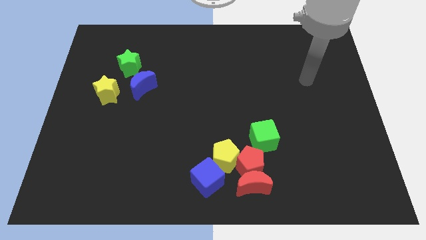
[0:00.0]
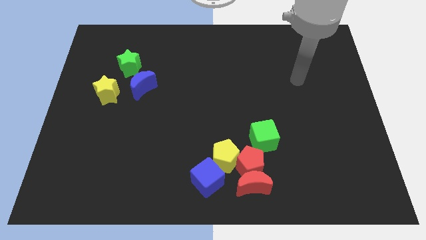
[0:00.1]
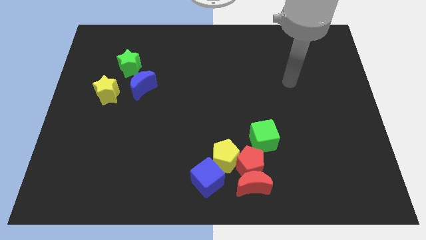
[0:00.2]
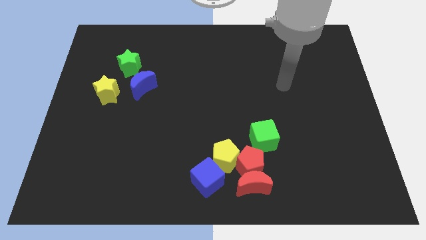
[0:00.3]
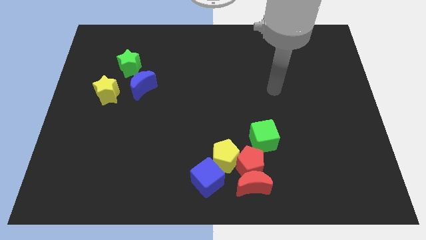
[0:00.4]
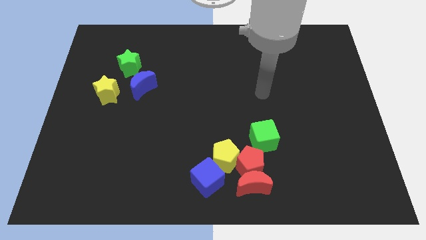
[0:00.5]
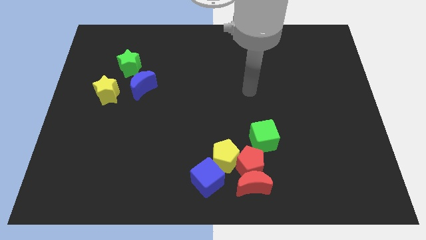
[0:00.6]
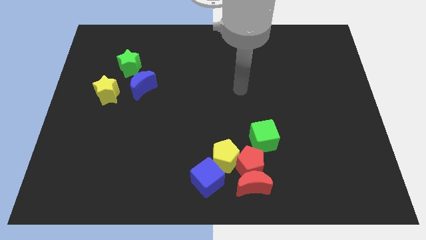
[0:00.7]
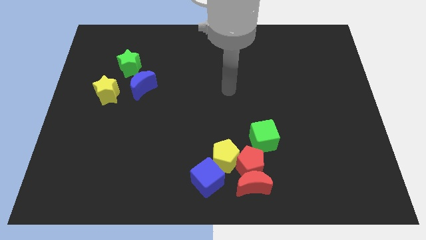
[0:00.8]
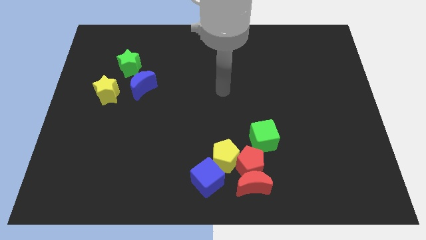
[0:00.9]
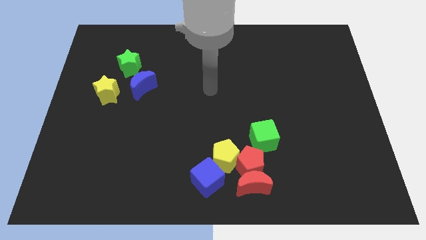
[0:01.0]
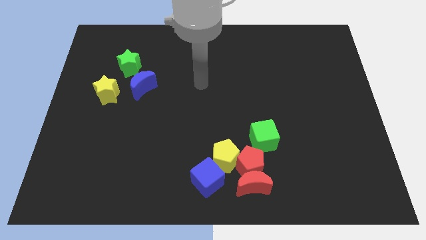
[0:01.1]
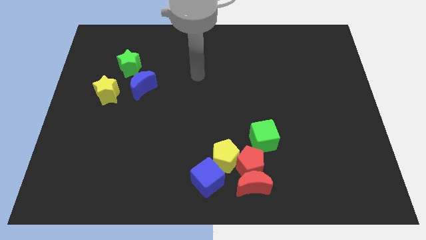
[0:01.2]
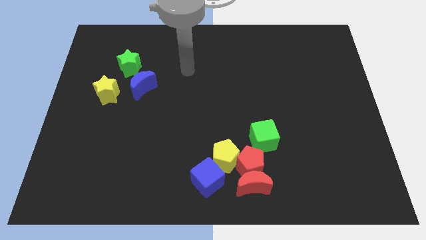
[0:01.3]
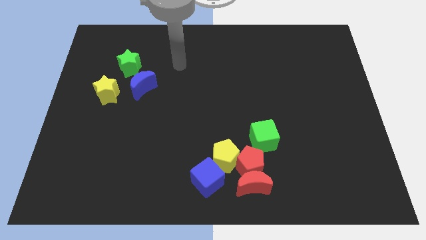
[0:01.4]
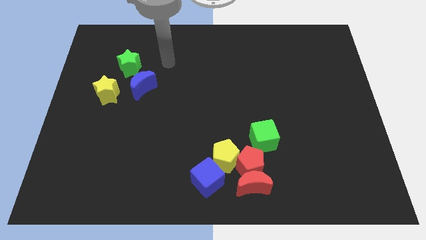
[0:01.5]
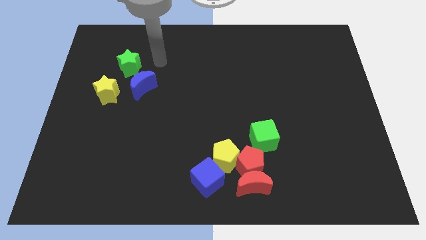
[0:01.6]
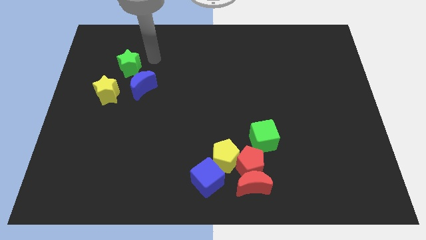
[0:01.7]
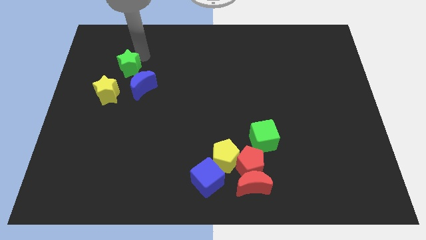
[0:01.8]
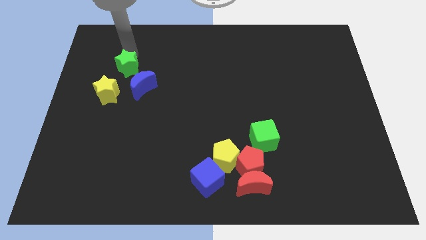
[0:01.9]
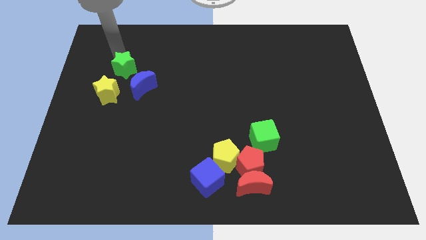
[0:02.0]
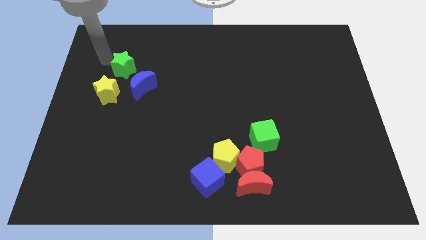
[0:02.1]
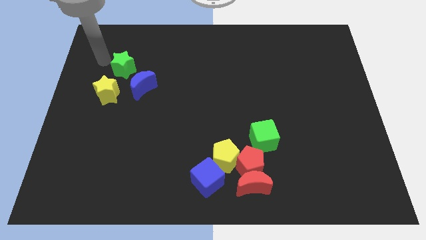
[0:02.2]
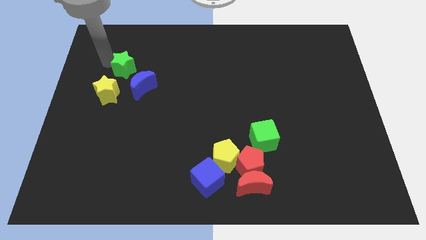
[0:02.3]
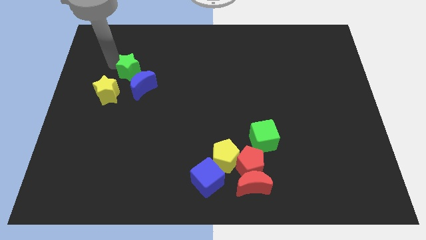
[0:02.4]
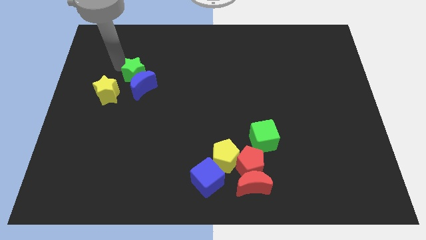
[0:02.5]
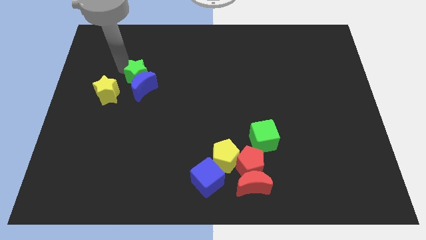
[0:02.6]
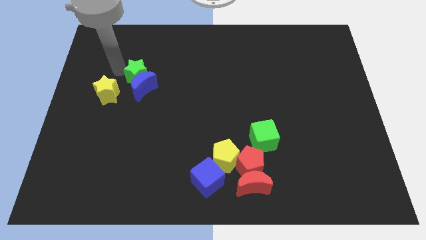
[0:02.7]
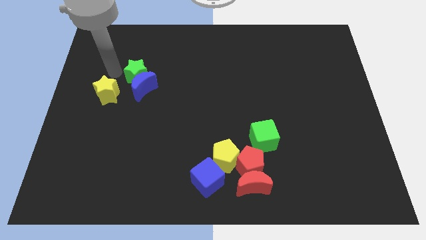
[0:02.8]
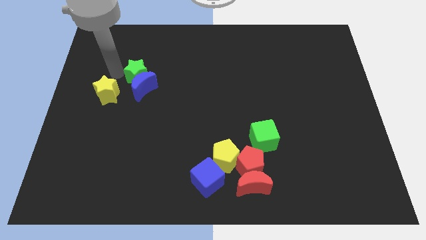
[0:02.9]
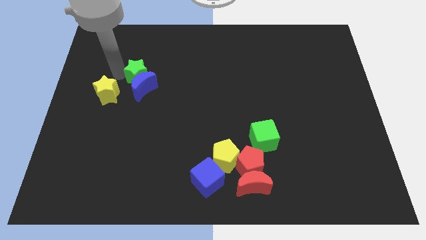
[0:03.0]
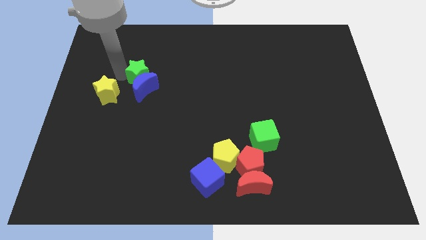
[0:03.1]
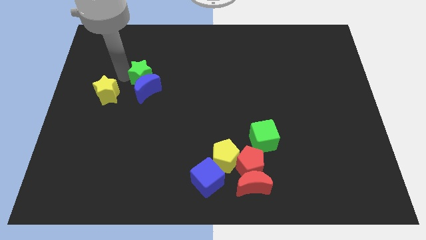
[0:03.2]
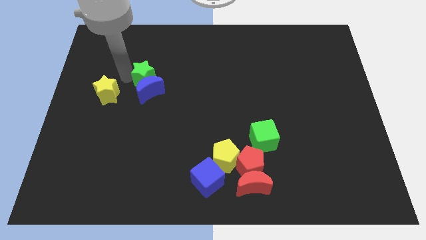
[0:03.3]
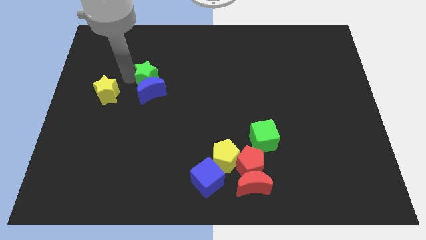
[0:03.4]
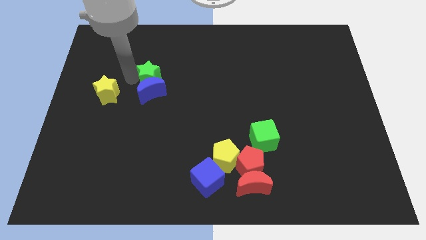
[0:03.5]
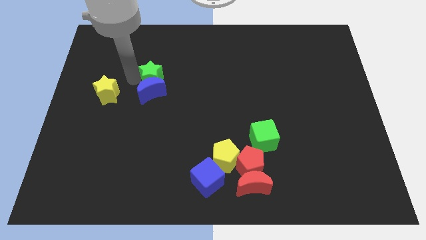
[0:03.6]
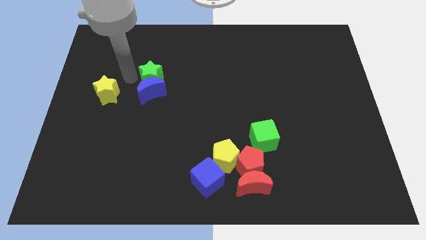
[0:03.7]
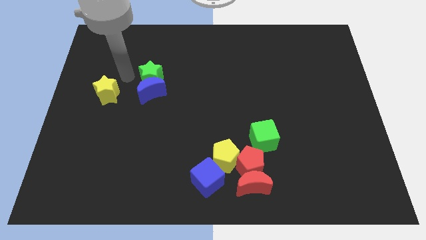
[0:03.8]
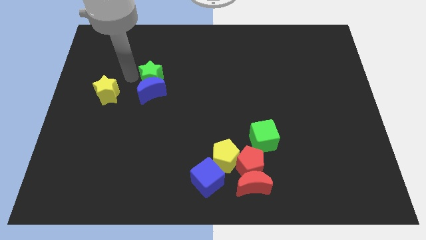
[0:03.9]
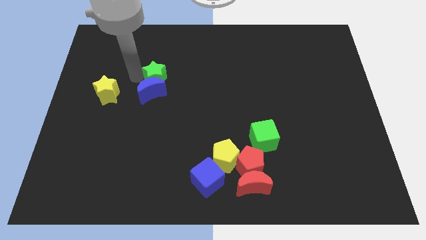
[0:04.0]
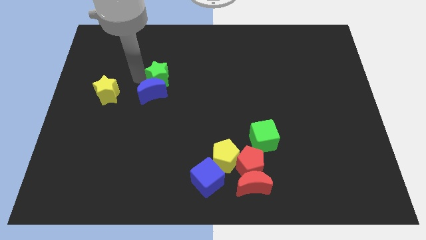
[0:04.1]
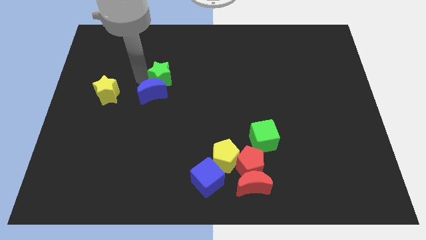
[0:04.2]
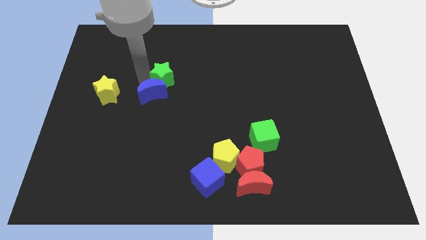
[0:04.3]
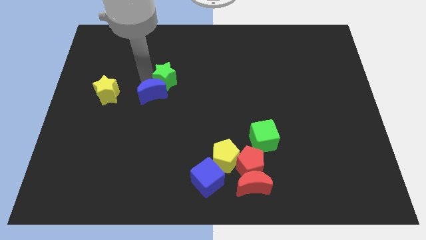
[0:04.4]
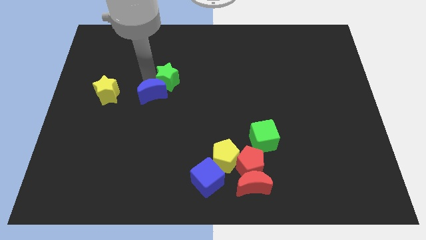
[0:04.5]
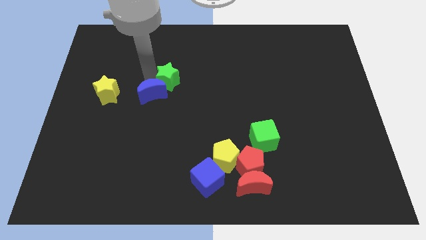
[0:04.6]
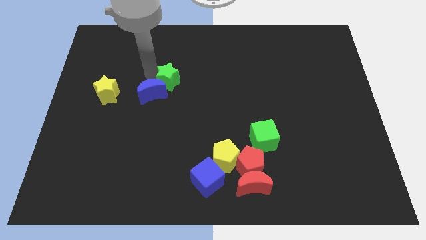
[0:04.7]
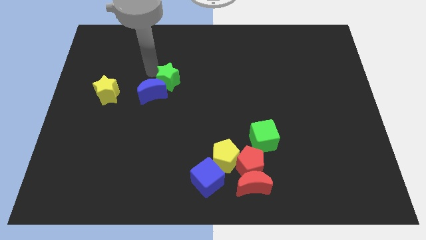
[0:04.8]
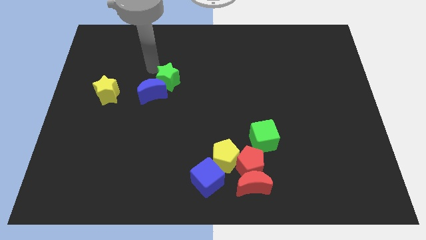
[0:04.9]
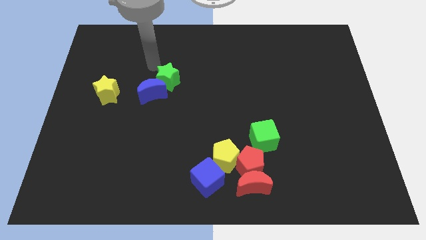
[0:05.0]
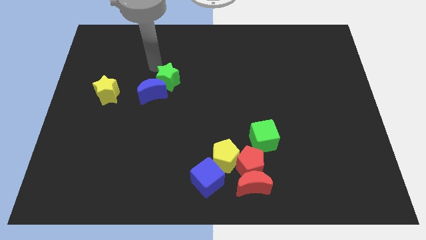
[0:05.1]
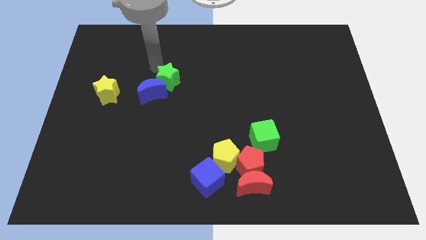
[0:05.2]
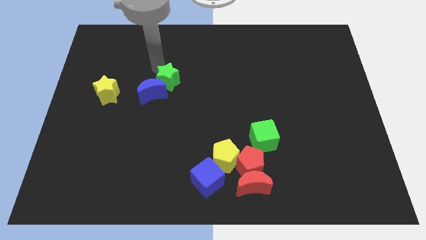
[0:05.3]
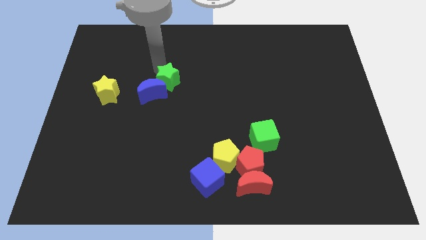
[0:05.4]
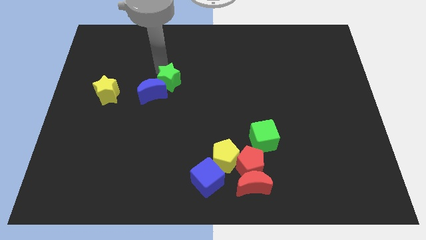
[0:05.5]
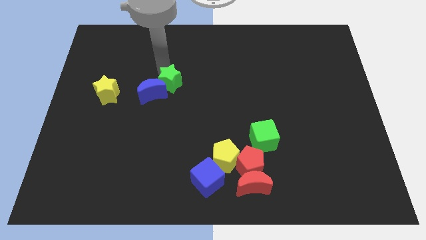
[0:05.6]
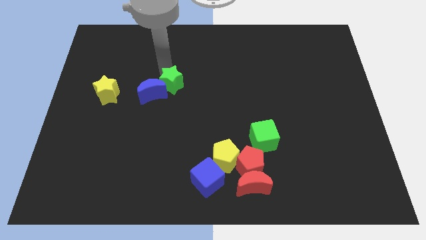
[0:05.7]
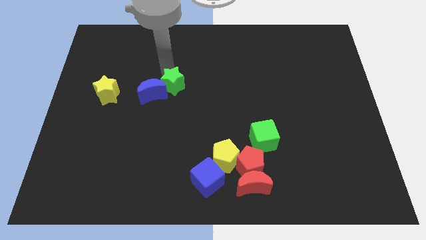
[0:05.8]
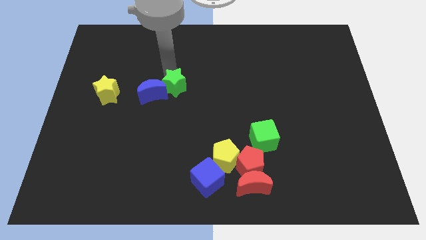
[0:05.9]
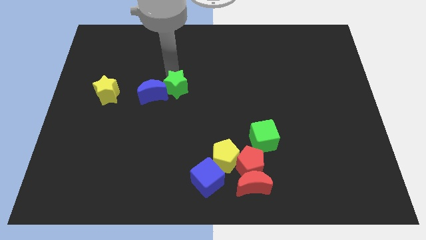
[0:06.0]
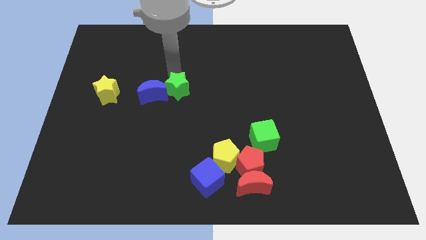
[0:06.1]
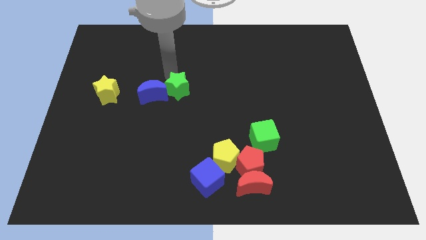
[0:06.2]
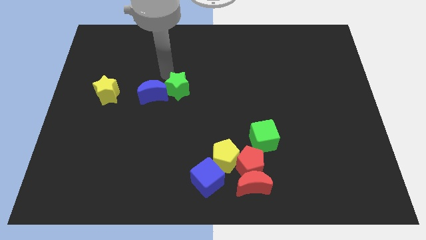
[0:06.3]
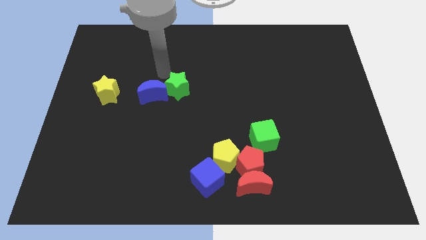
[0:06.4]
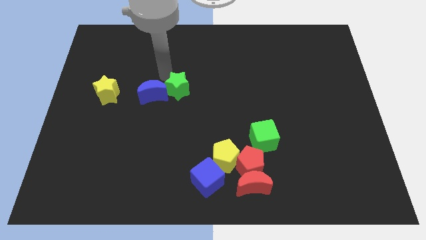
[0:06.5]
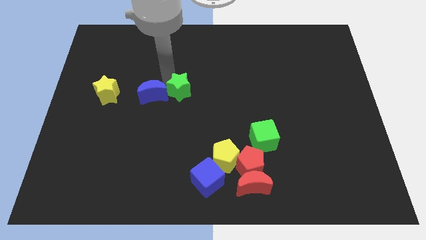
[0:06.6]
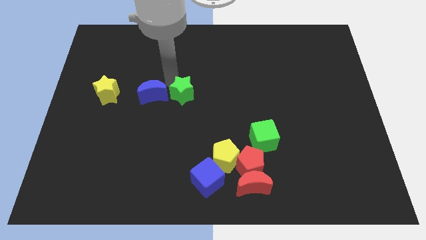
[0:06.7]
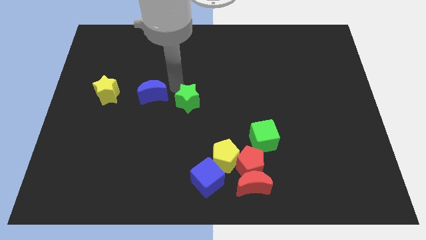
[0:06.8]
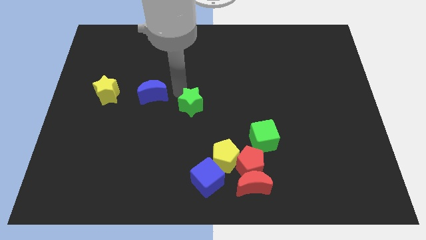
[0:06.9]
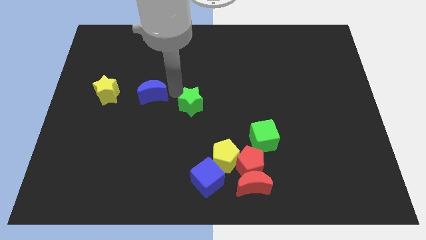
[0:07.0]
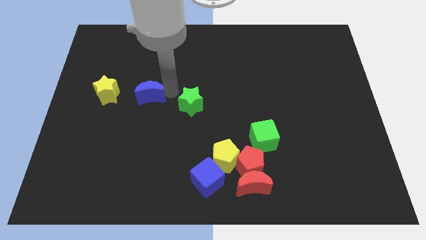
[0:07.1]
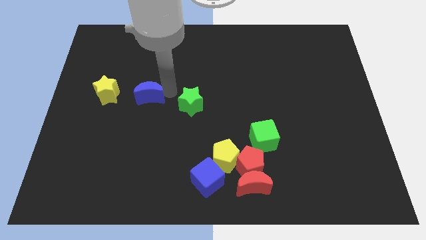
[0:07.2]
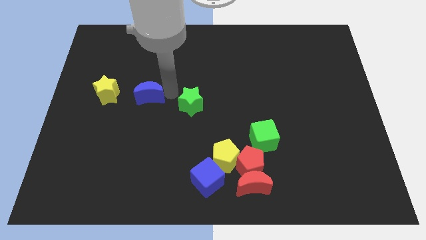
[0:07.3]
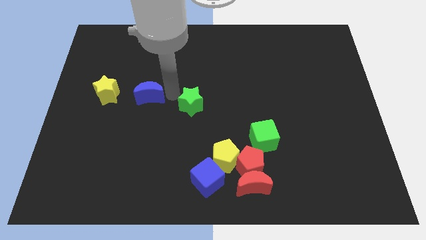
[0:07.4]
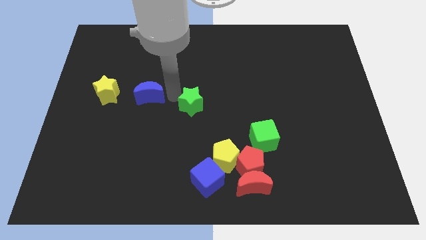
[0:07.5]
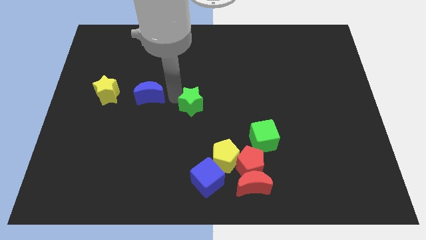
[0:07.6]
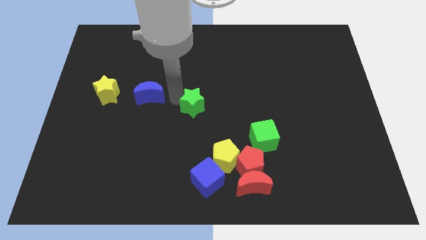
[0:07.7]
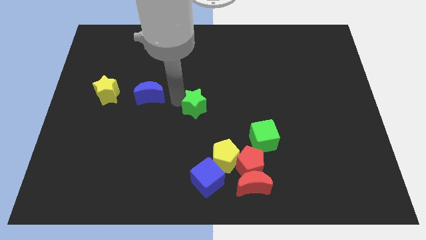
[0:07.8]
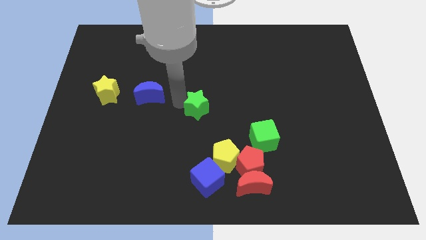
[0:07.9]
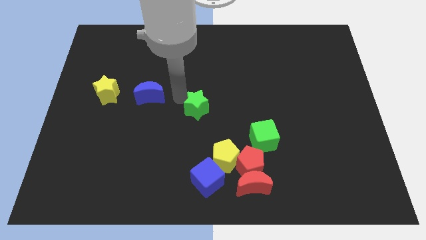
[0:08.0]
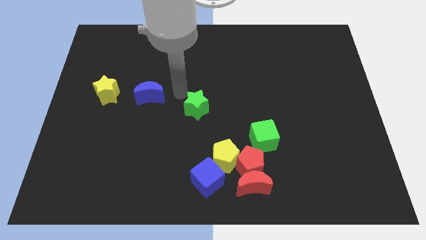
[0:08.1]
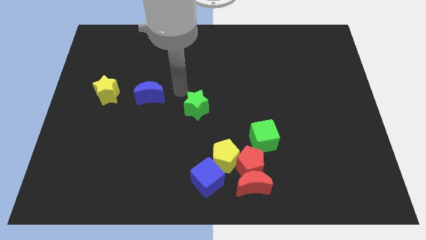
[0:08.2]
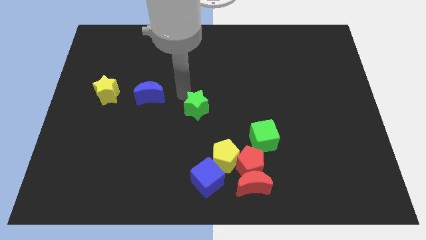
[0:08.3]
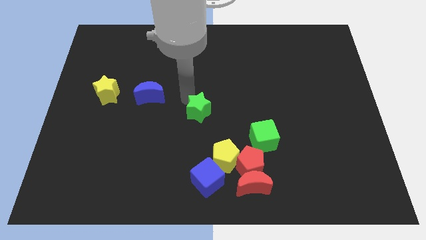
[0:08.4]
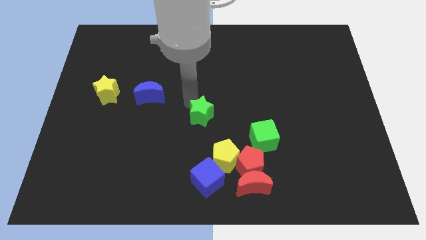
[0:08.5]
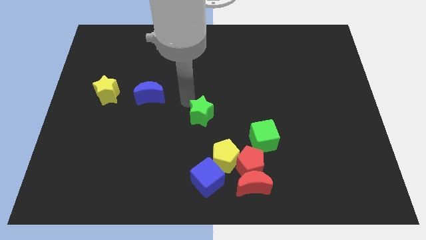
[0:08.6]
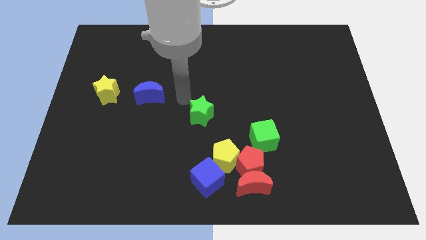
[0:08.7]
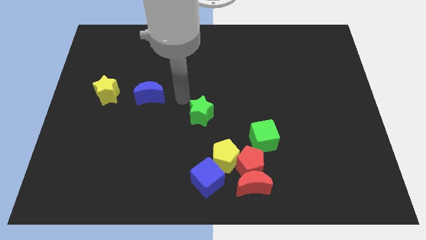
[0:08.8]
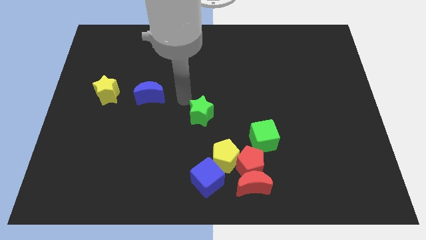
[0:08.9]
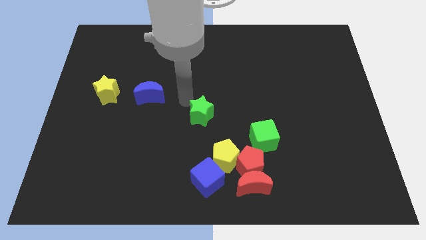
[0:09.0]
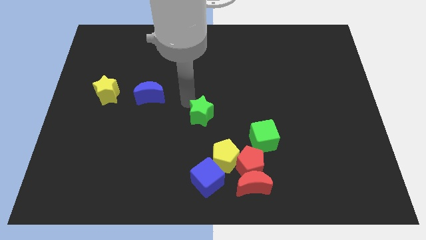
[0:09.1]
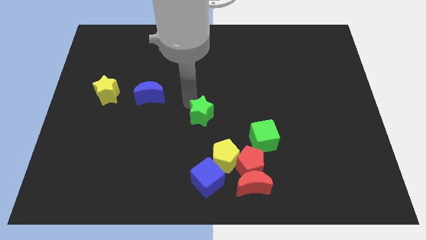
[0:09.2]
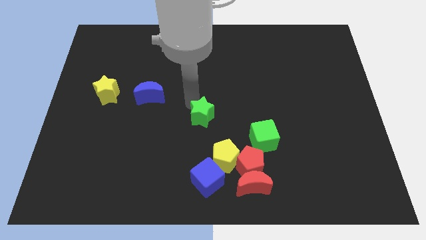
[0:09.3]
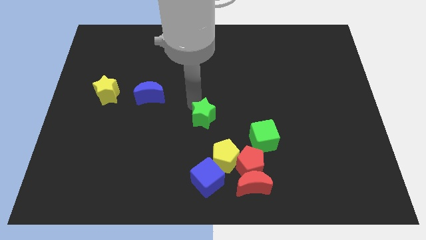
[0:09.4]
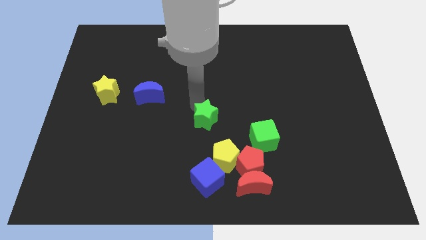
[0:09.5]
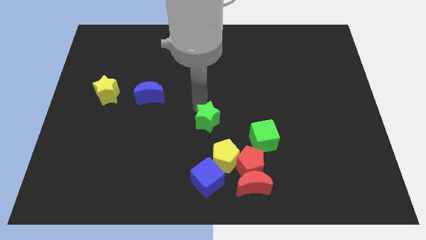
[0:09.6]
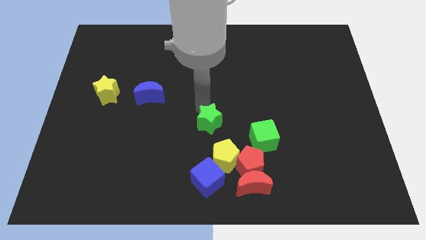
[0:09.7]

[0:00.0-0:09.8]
push the green star to the left side of the green cube
